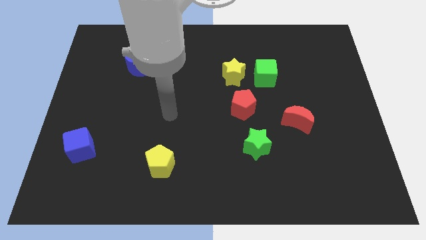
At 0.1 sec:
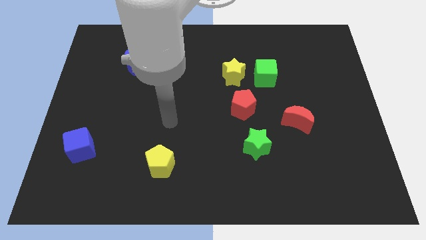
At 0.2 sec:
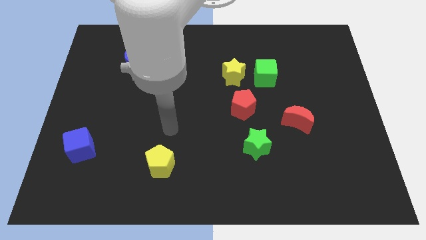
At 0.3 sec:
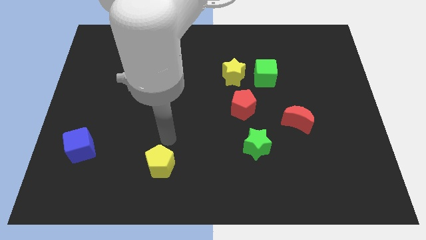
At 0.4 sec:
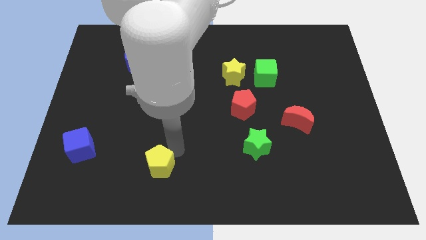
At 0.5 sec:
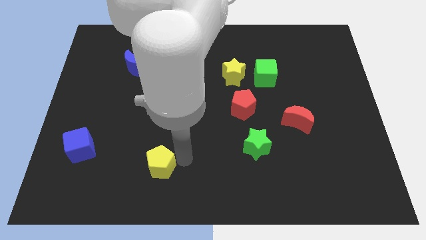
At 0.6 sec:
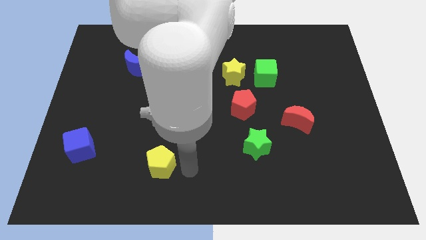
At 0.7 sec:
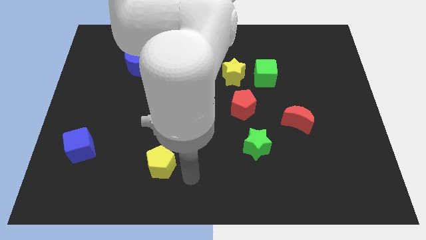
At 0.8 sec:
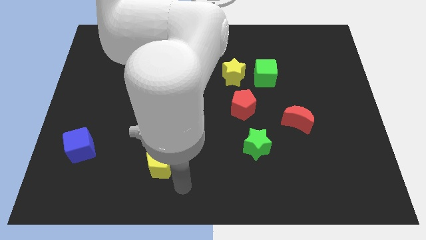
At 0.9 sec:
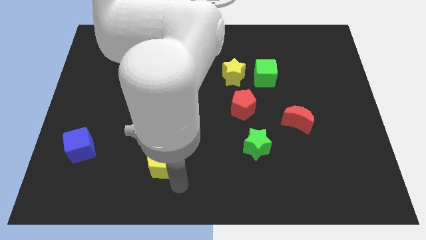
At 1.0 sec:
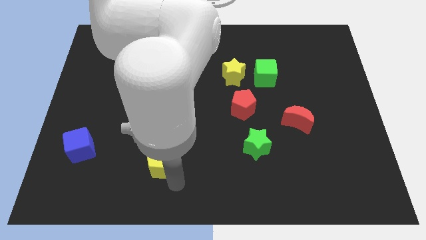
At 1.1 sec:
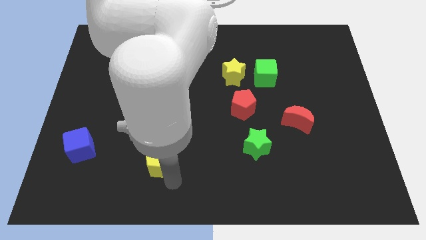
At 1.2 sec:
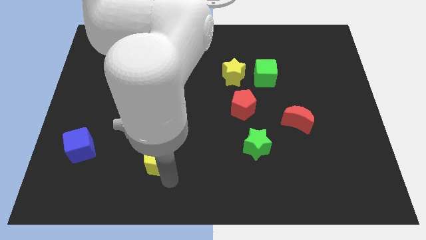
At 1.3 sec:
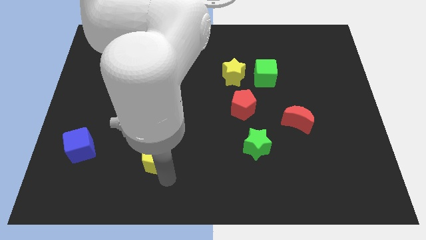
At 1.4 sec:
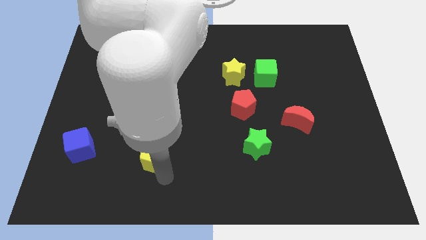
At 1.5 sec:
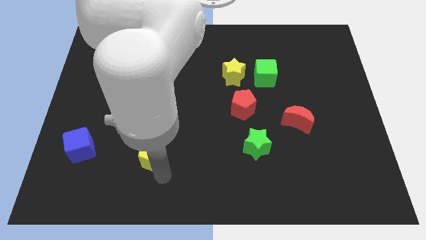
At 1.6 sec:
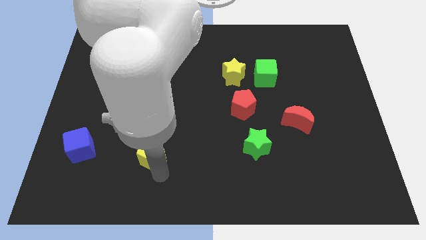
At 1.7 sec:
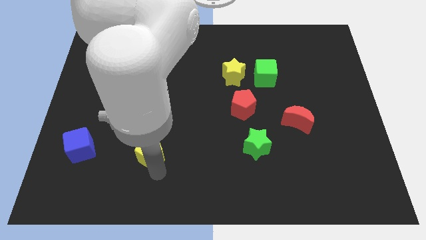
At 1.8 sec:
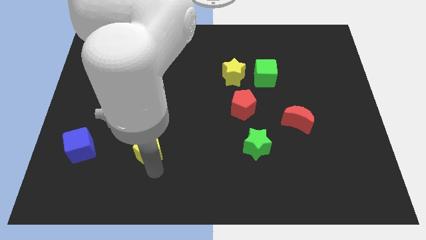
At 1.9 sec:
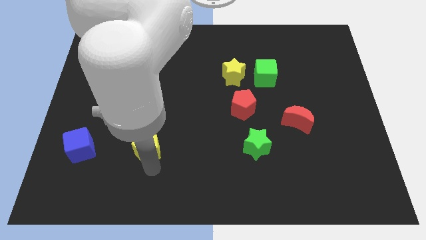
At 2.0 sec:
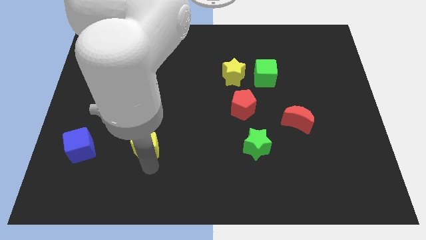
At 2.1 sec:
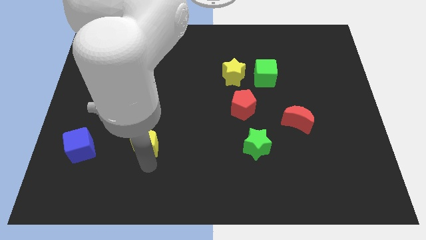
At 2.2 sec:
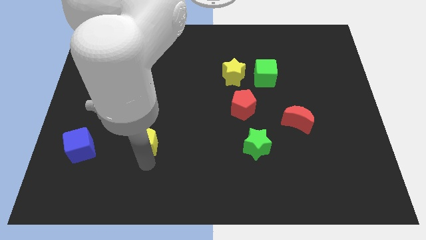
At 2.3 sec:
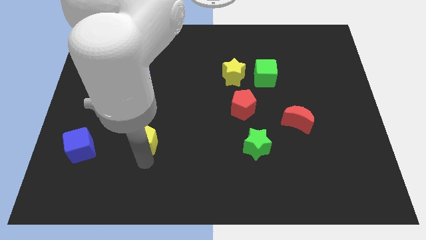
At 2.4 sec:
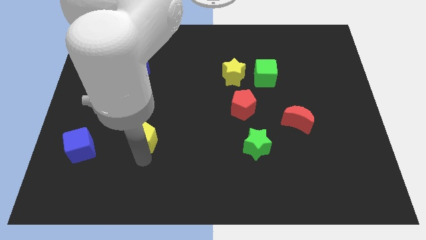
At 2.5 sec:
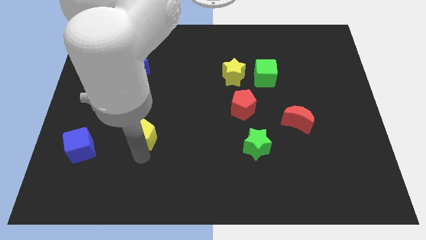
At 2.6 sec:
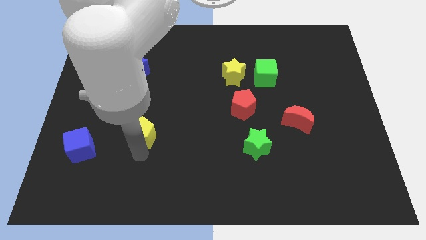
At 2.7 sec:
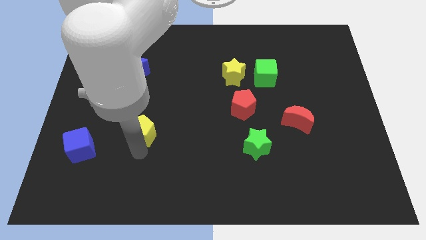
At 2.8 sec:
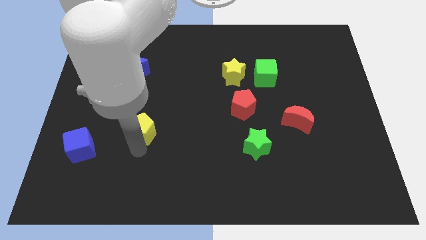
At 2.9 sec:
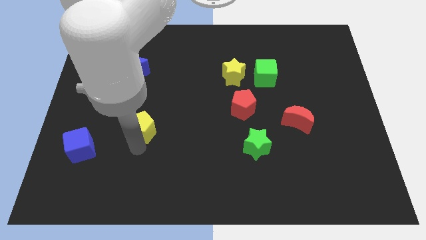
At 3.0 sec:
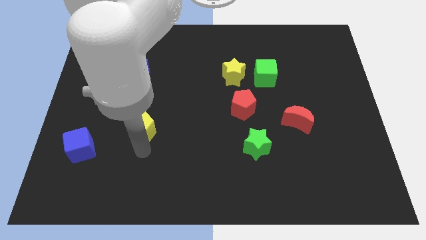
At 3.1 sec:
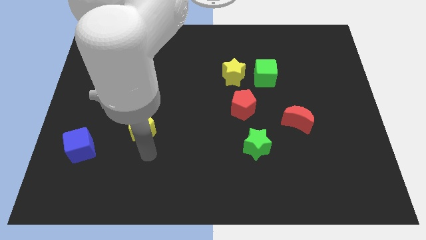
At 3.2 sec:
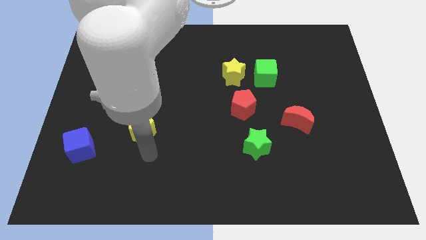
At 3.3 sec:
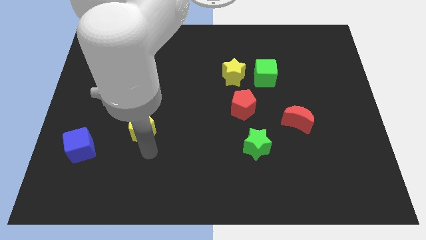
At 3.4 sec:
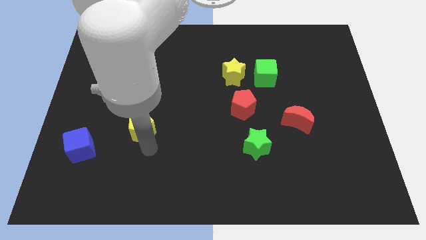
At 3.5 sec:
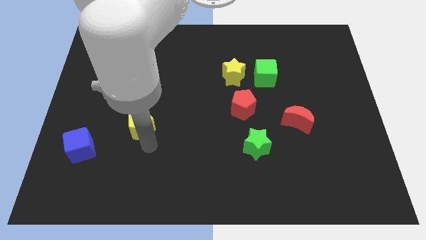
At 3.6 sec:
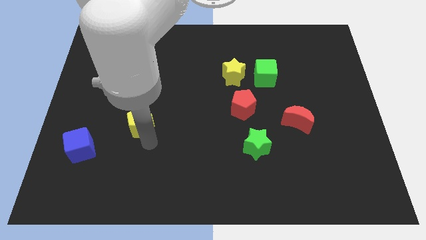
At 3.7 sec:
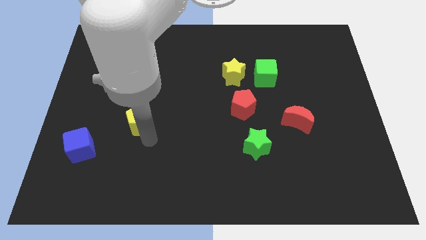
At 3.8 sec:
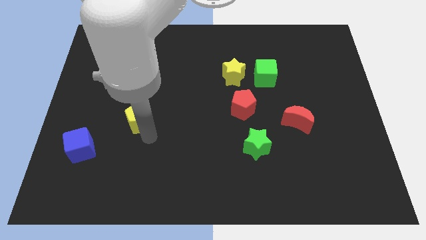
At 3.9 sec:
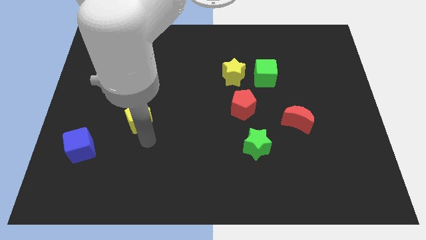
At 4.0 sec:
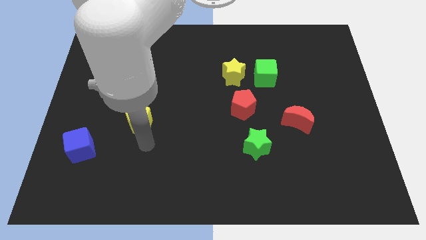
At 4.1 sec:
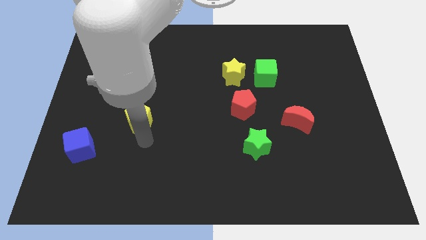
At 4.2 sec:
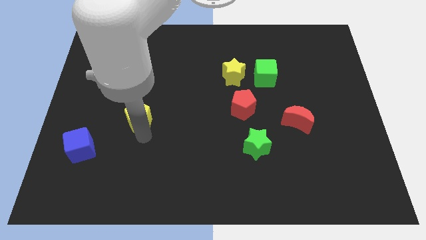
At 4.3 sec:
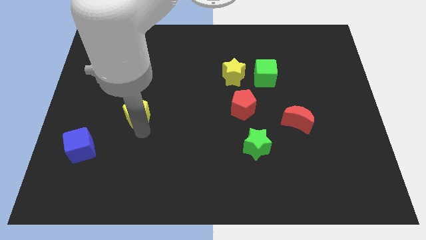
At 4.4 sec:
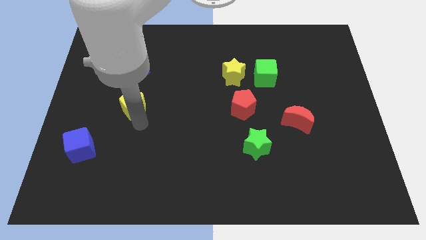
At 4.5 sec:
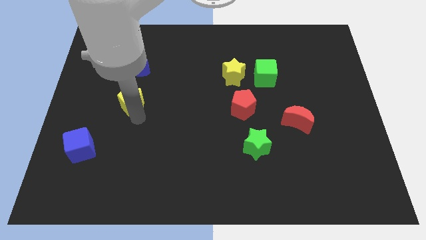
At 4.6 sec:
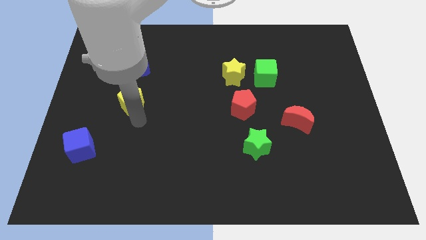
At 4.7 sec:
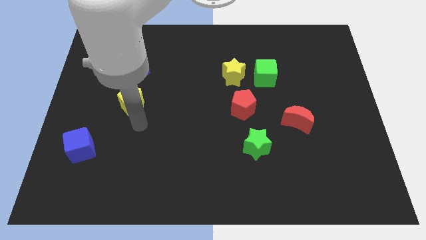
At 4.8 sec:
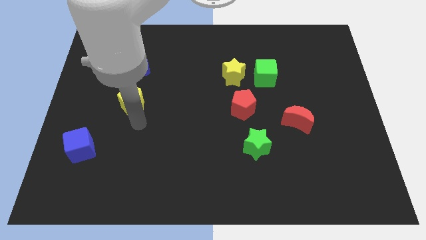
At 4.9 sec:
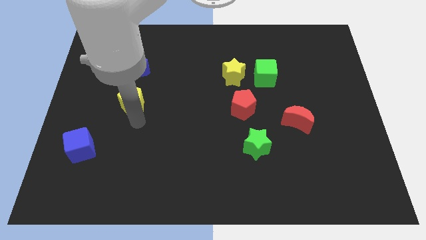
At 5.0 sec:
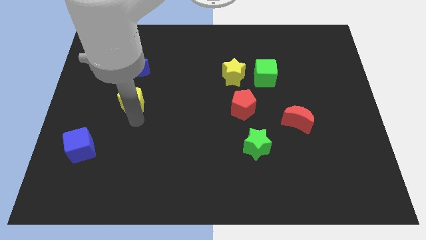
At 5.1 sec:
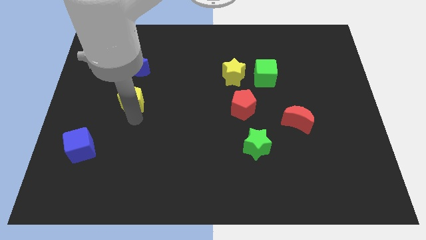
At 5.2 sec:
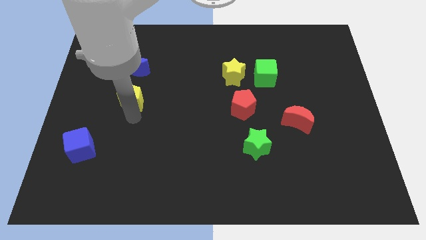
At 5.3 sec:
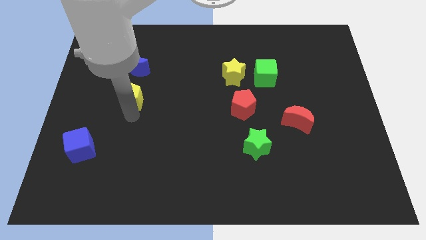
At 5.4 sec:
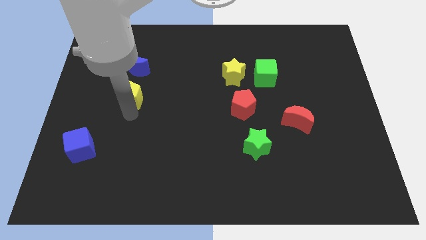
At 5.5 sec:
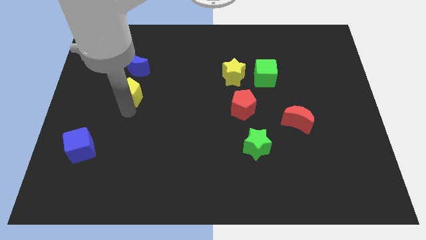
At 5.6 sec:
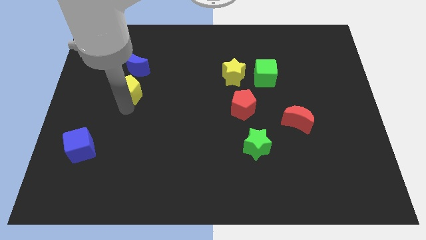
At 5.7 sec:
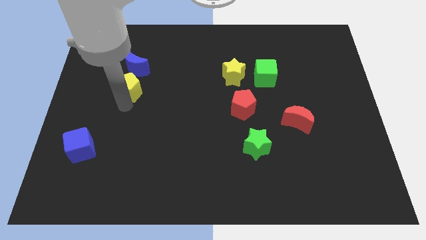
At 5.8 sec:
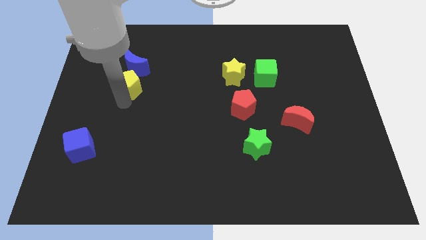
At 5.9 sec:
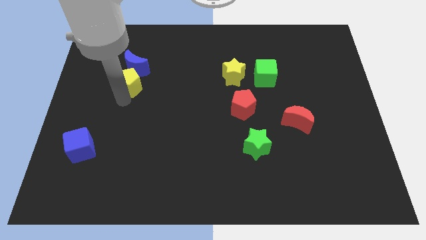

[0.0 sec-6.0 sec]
move the yellow pentagon to the blue moon

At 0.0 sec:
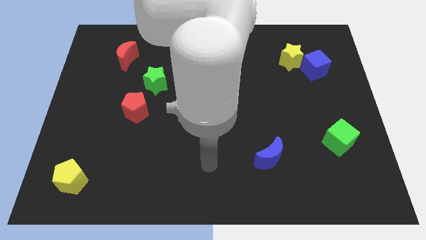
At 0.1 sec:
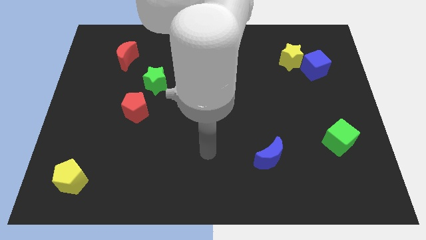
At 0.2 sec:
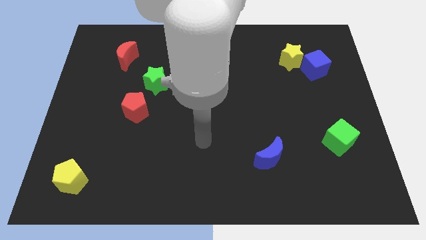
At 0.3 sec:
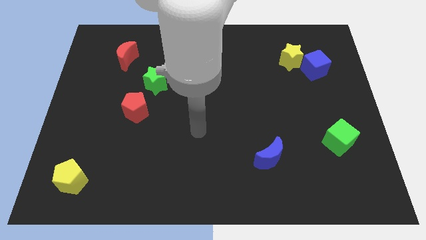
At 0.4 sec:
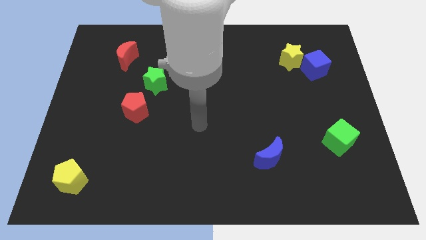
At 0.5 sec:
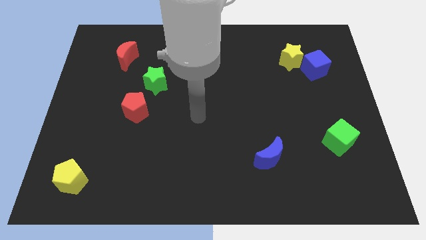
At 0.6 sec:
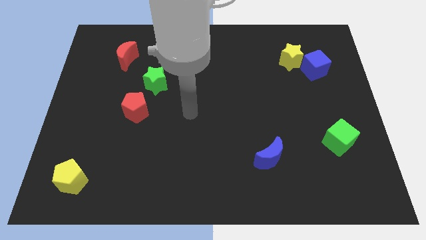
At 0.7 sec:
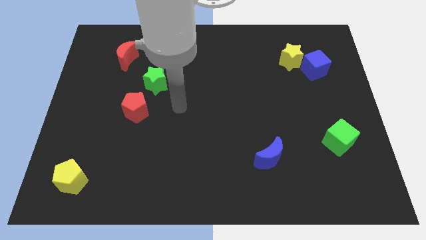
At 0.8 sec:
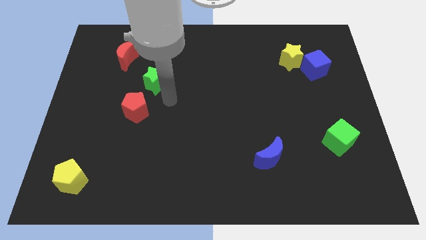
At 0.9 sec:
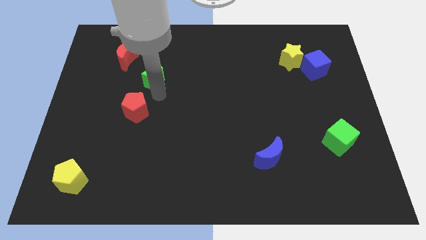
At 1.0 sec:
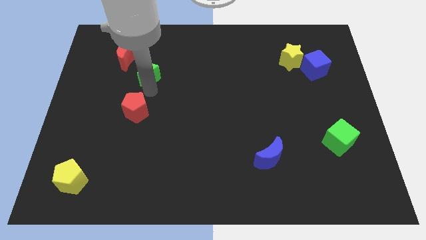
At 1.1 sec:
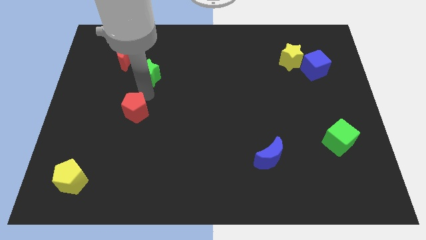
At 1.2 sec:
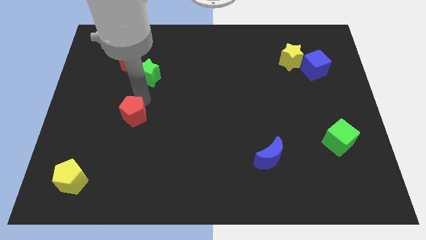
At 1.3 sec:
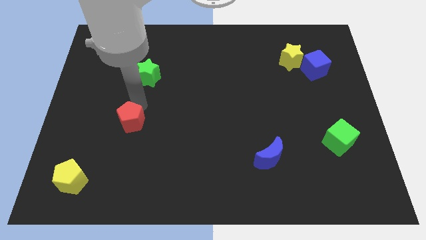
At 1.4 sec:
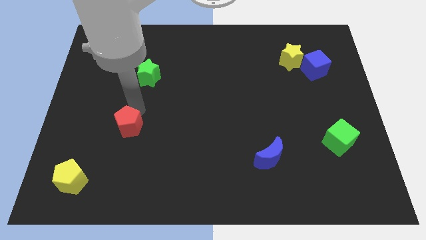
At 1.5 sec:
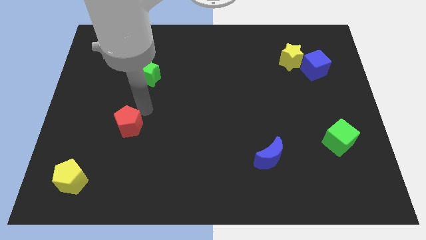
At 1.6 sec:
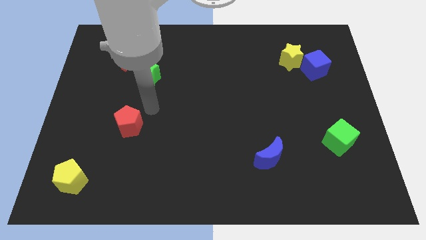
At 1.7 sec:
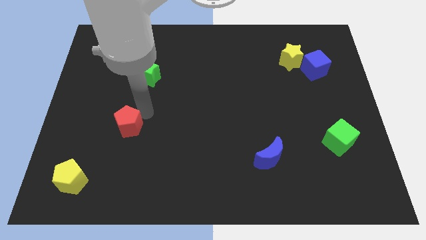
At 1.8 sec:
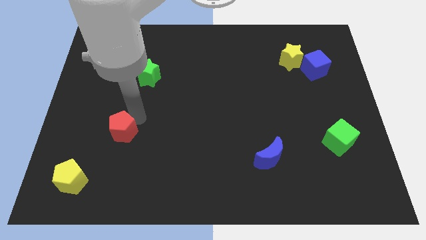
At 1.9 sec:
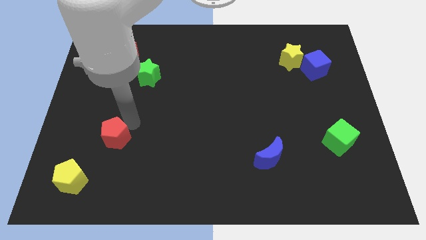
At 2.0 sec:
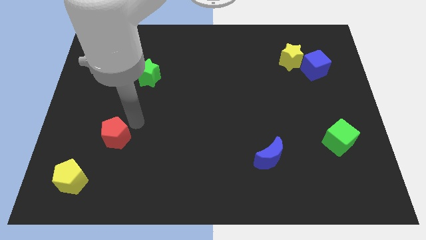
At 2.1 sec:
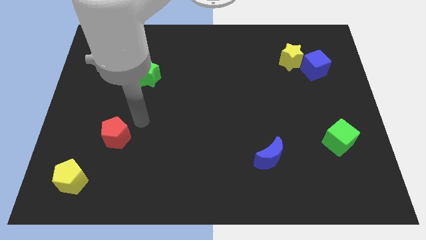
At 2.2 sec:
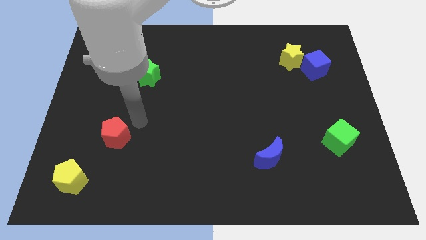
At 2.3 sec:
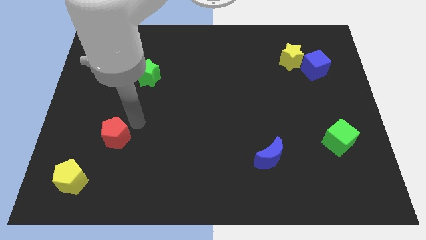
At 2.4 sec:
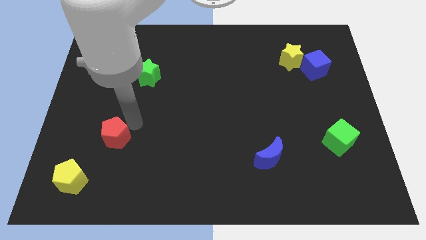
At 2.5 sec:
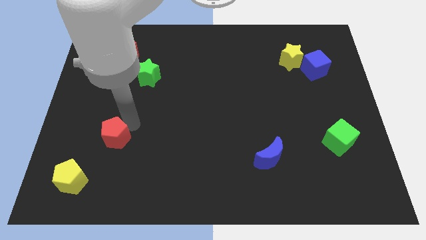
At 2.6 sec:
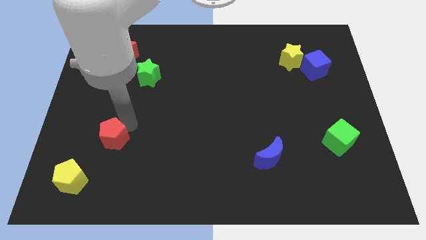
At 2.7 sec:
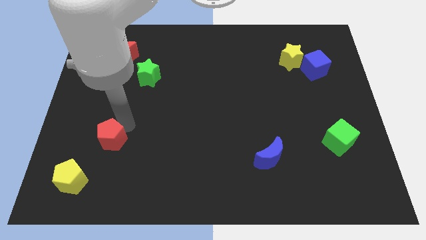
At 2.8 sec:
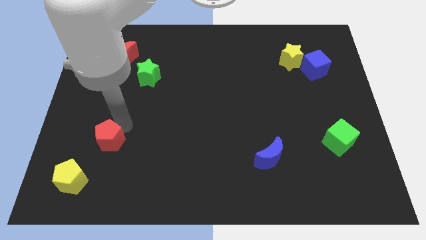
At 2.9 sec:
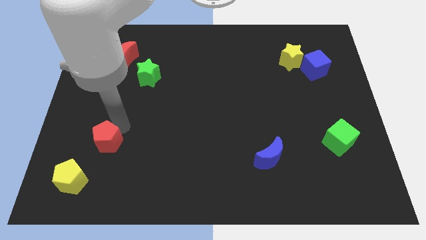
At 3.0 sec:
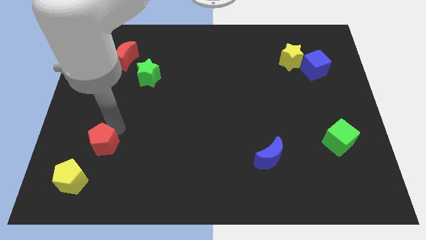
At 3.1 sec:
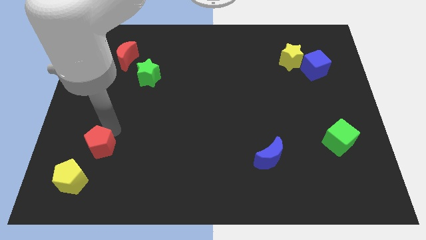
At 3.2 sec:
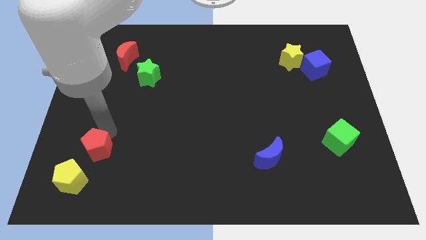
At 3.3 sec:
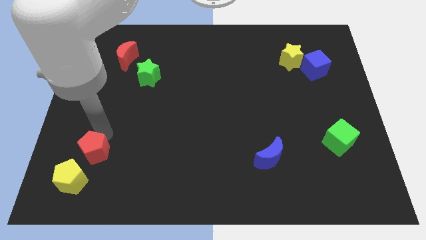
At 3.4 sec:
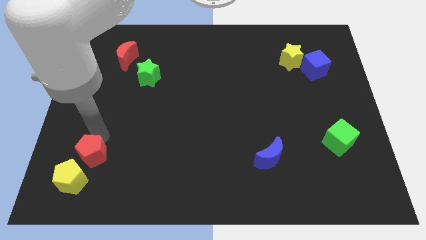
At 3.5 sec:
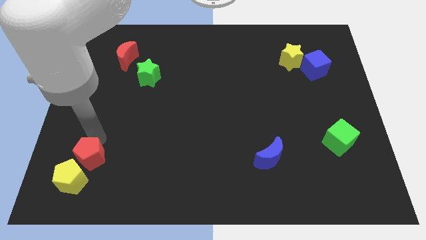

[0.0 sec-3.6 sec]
move the red pentagon close to the yellow pentagon
